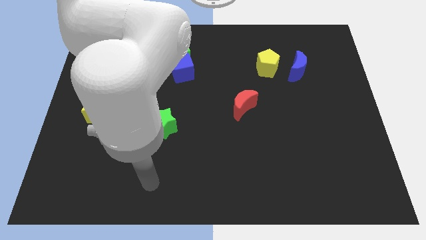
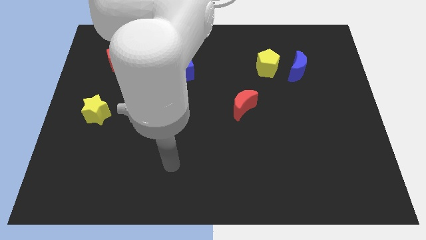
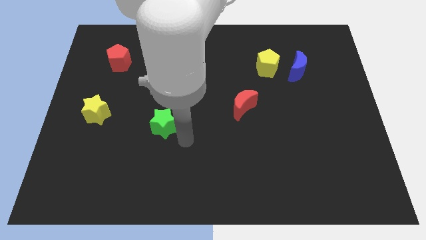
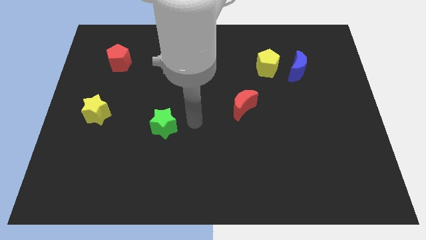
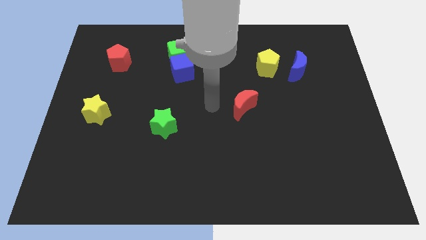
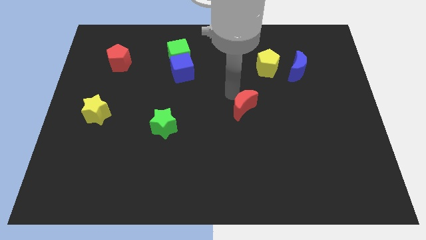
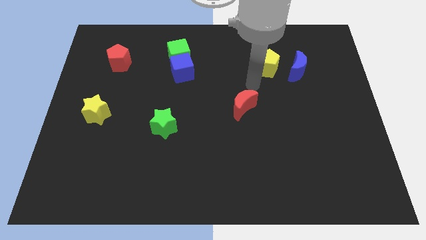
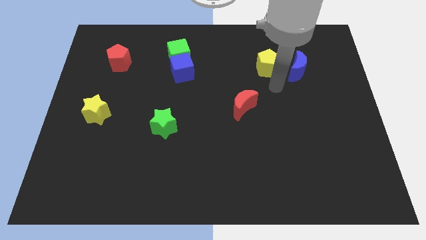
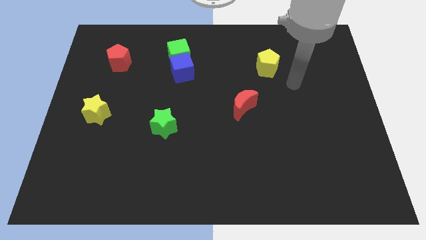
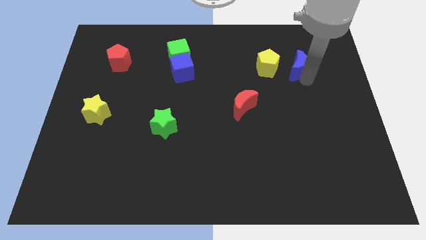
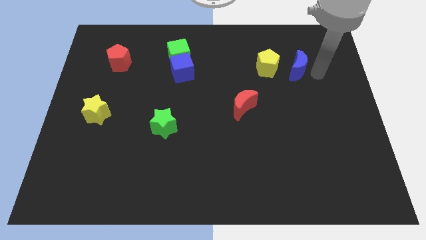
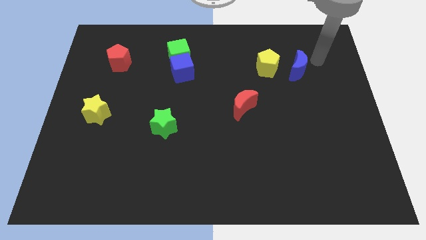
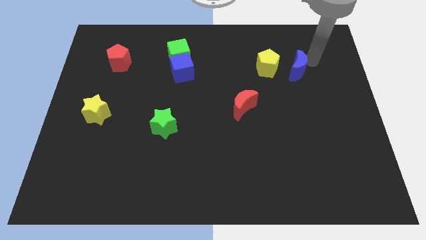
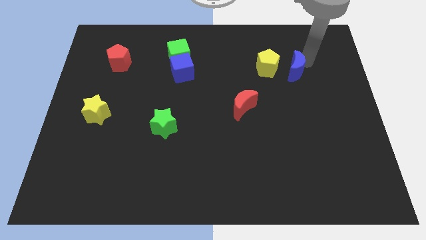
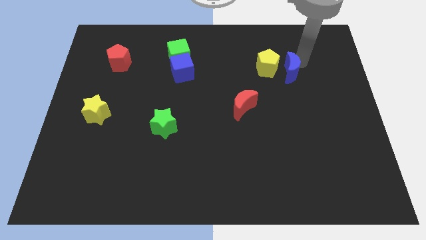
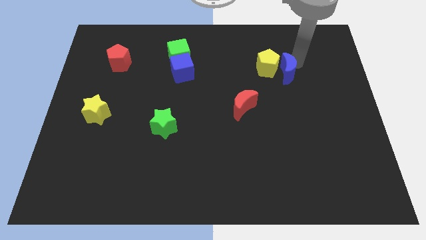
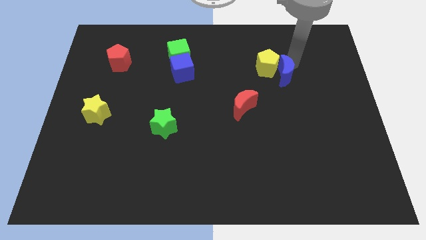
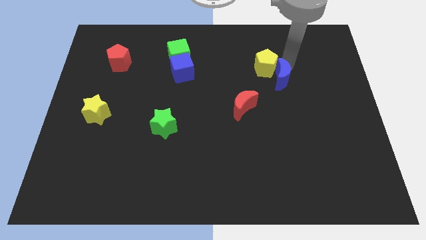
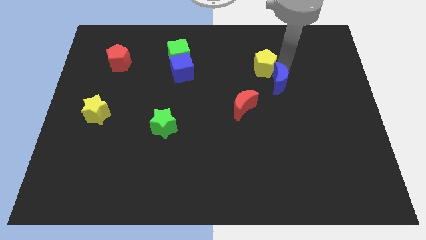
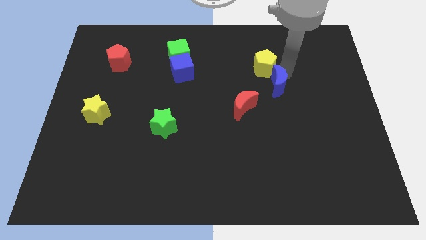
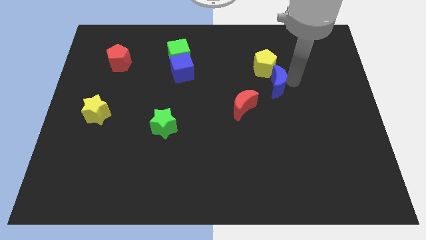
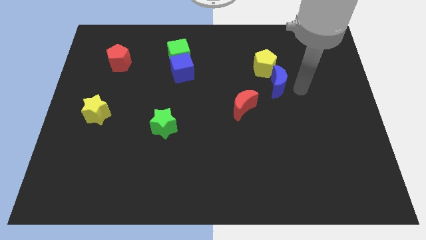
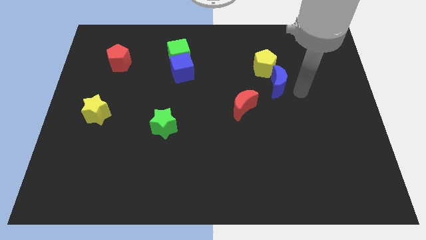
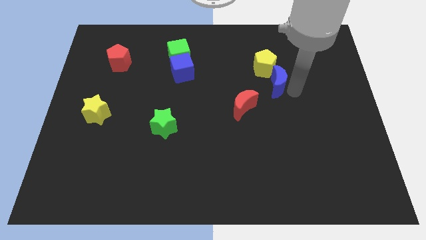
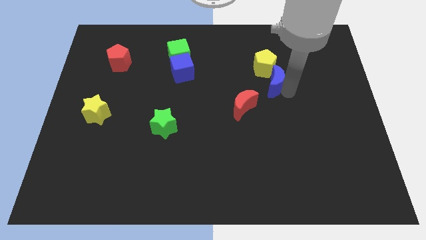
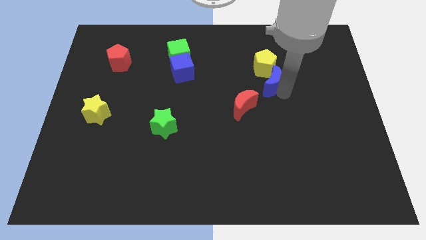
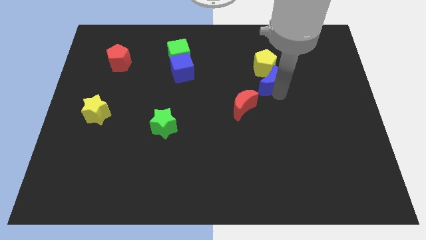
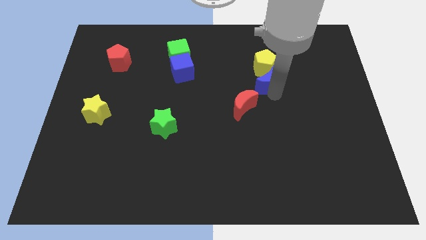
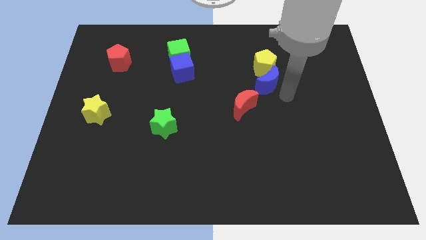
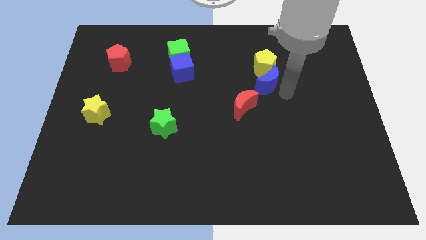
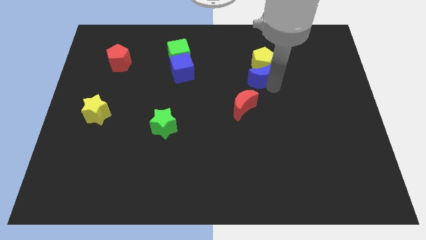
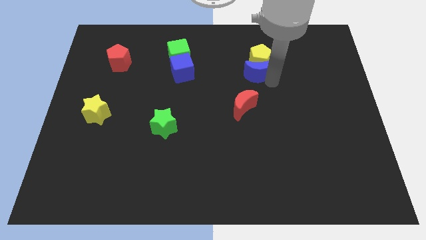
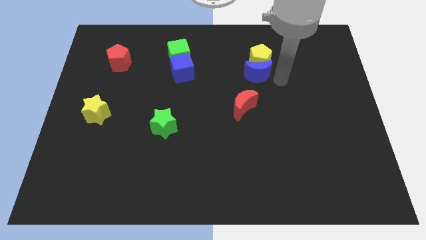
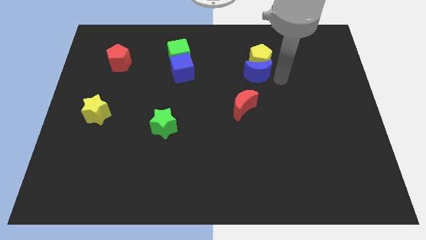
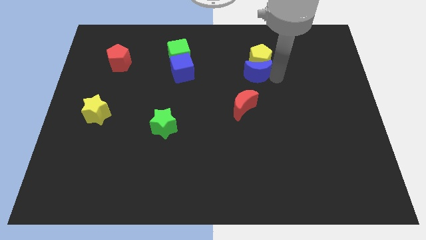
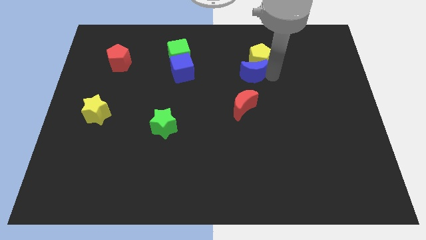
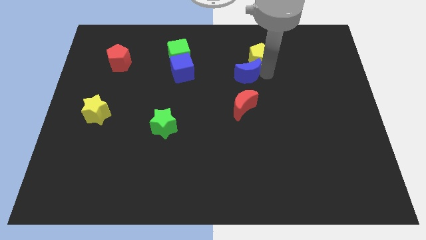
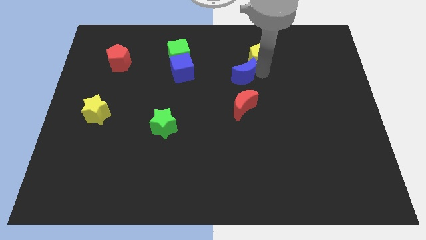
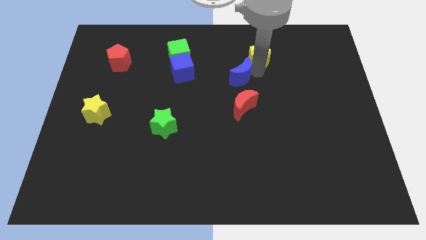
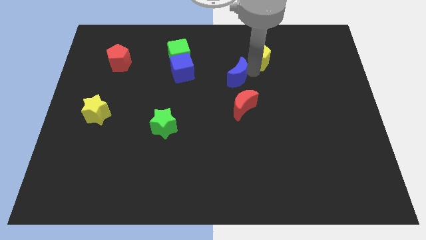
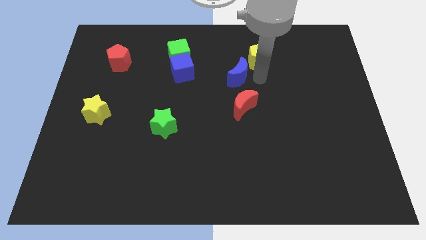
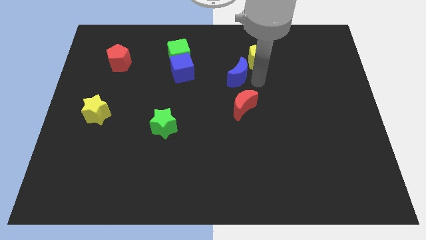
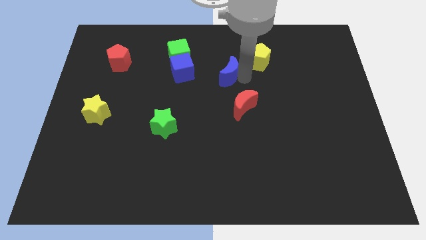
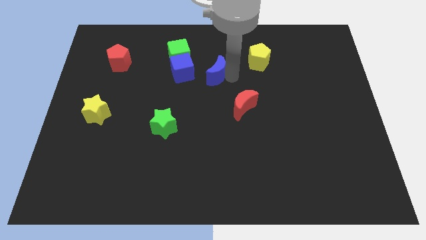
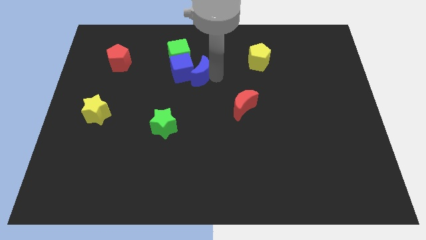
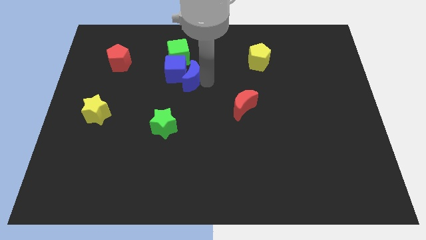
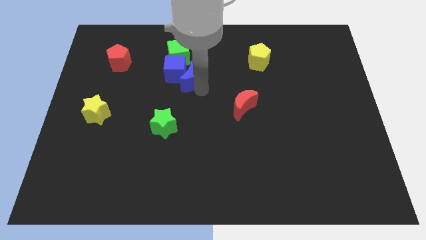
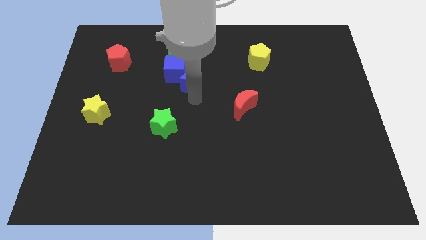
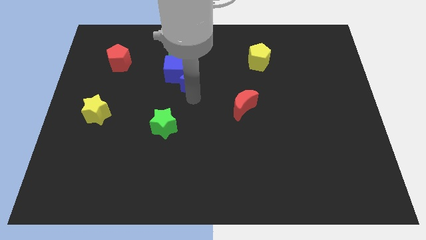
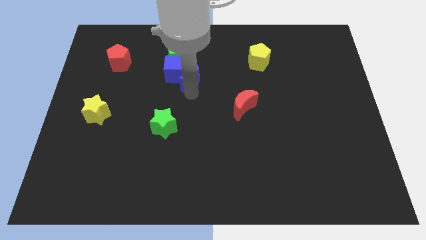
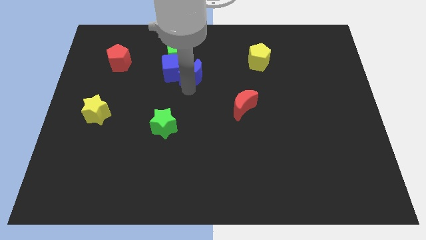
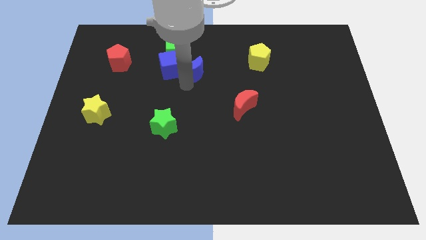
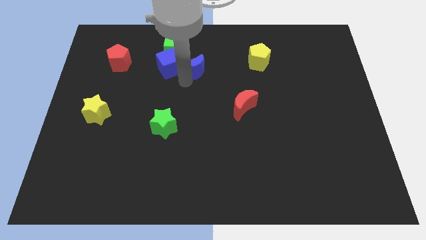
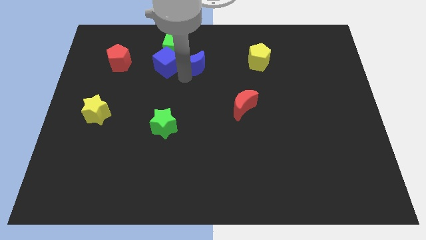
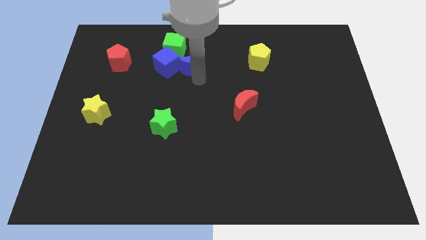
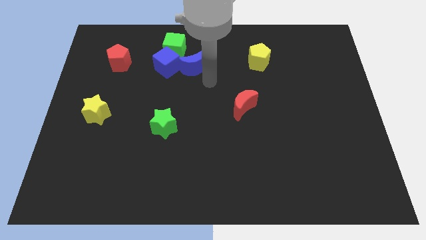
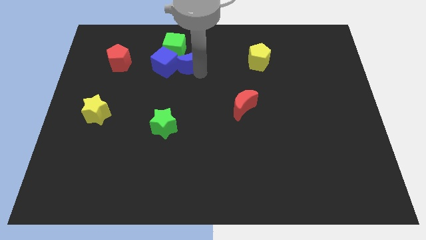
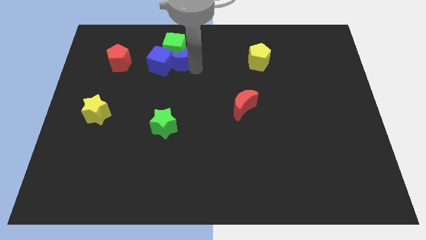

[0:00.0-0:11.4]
put the blue moon next to the green cube

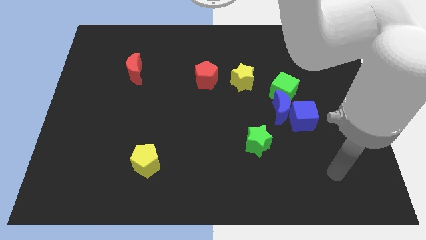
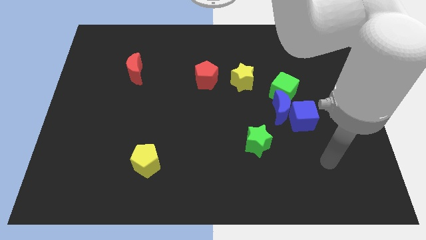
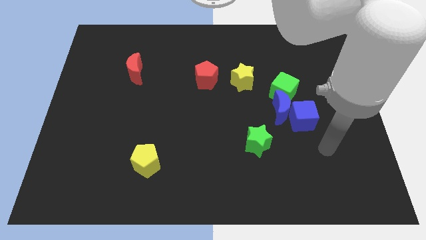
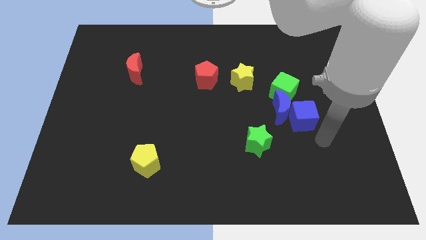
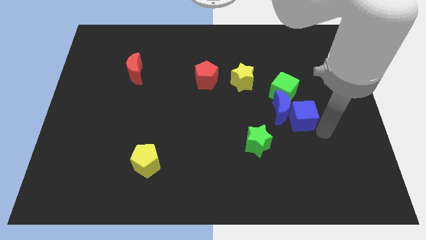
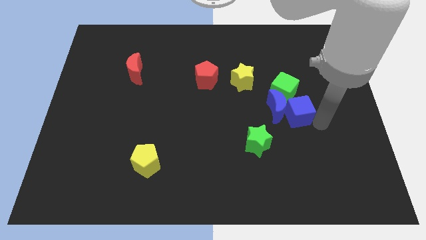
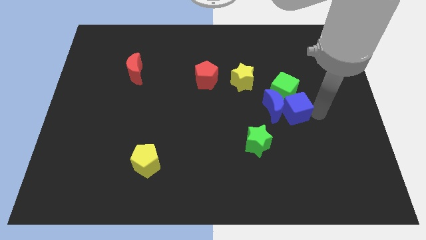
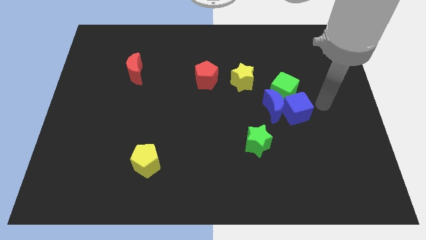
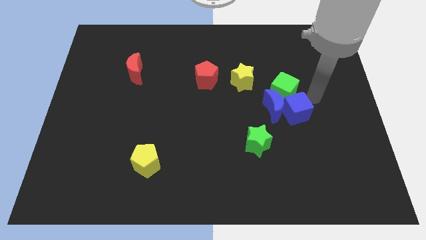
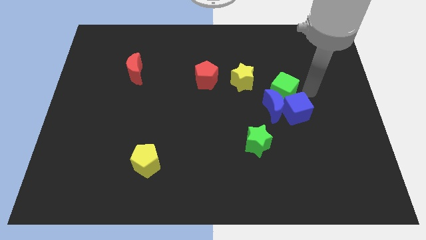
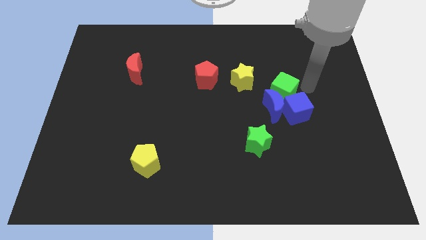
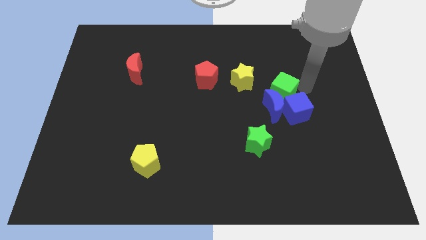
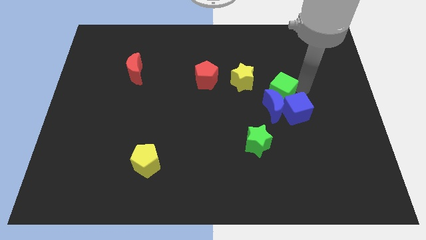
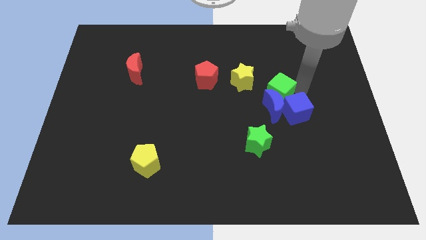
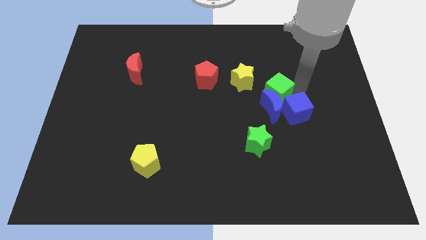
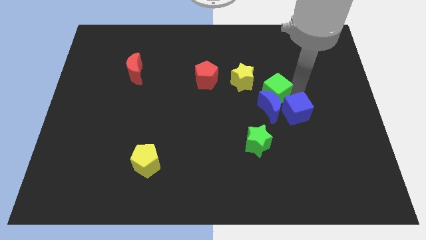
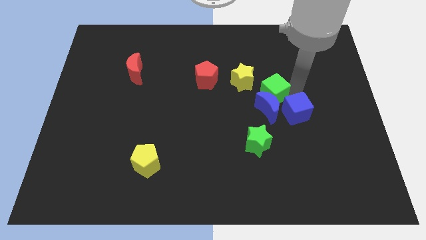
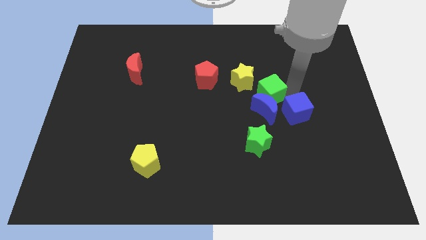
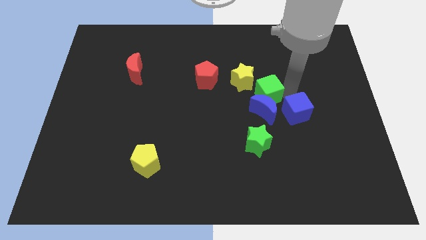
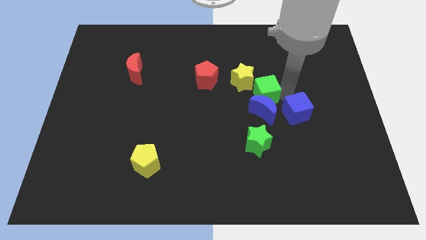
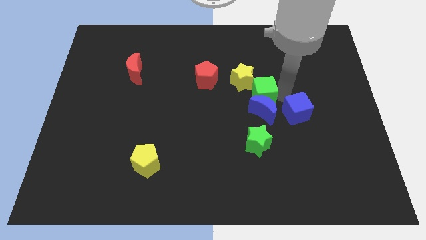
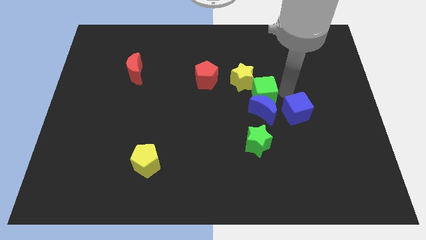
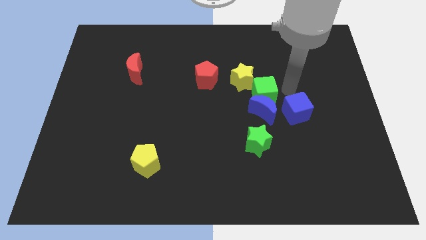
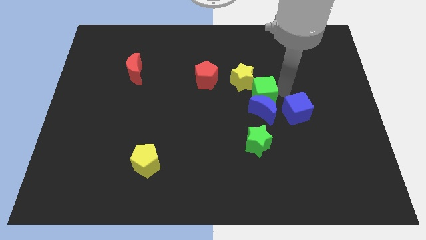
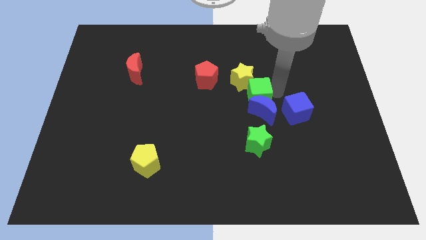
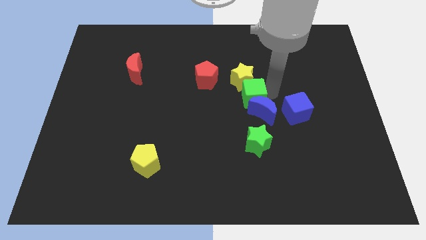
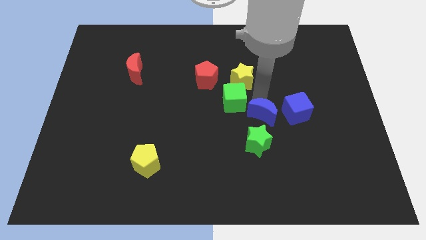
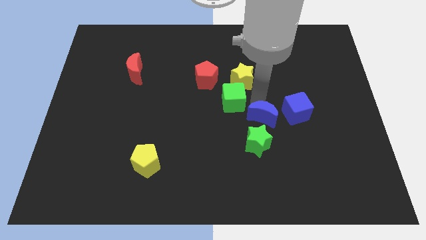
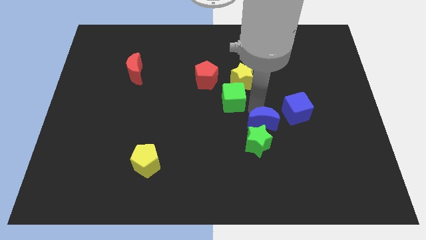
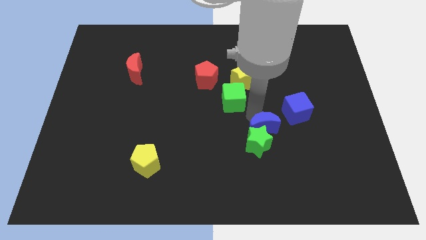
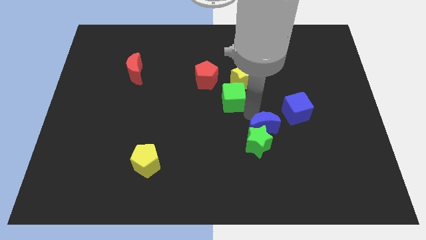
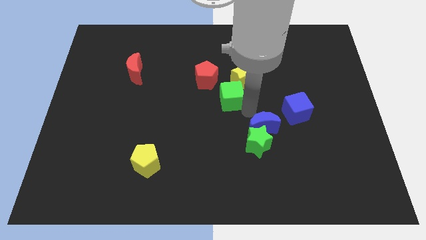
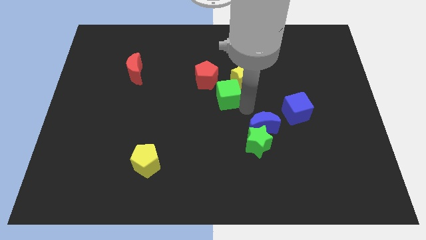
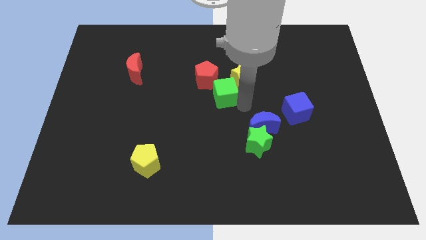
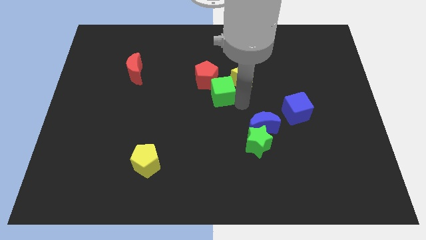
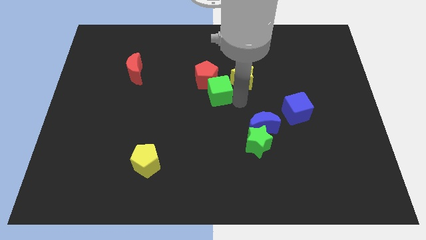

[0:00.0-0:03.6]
move the green cube close to the red pentagon
